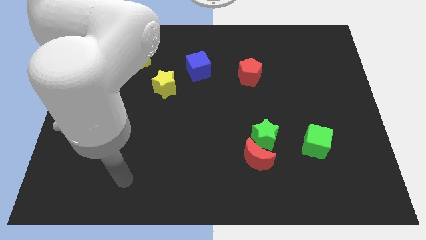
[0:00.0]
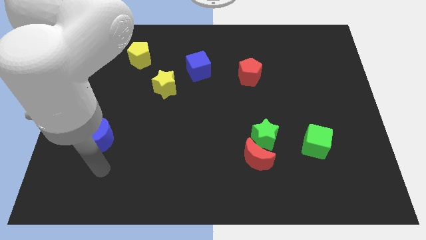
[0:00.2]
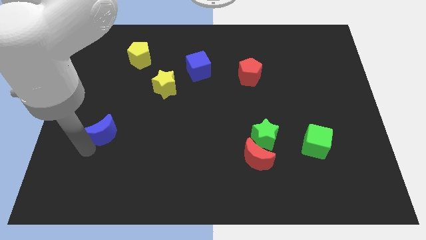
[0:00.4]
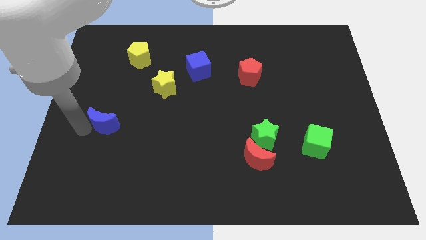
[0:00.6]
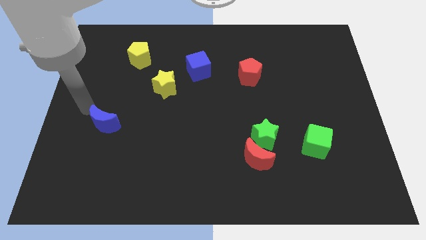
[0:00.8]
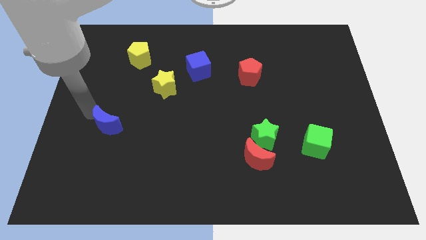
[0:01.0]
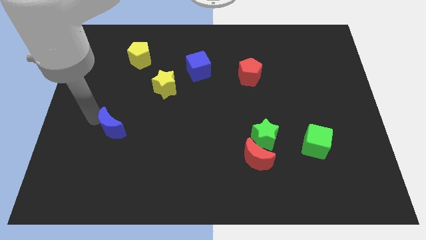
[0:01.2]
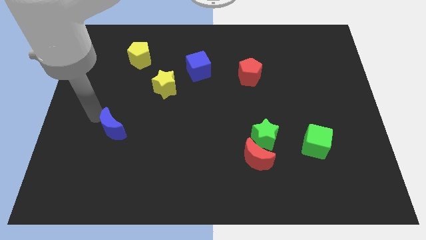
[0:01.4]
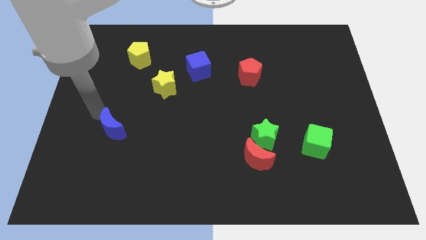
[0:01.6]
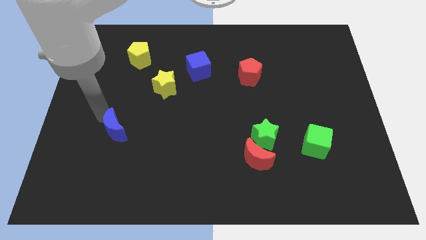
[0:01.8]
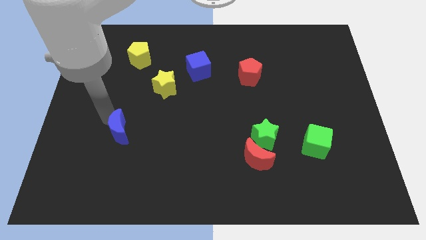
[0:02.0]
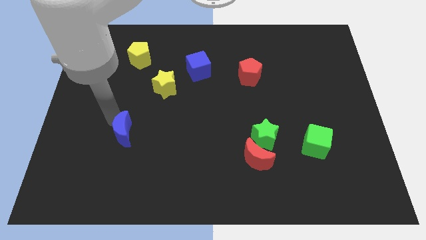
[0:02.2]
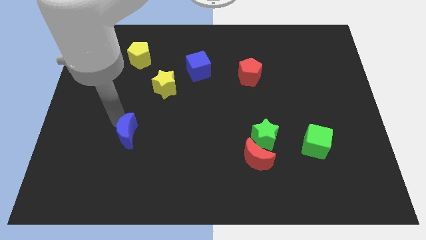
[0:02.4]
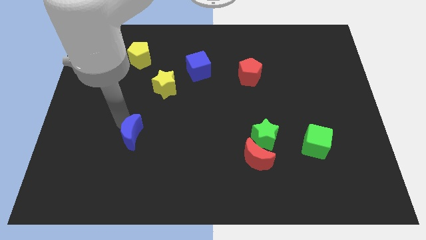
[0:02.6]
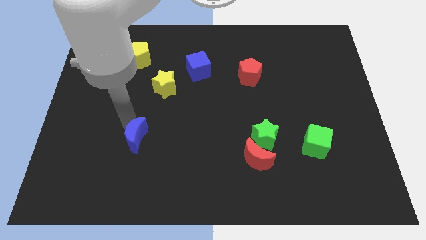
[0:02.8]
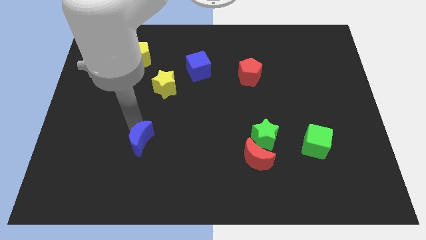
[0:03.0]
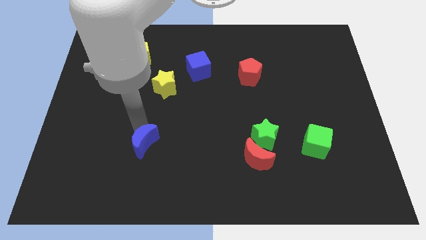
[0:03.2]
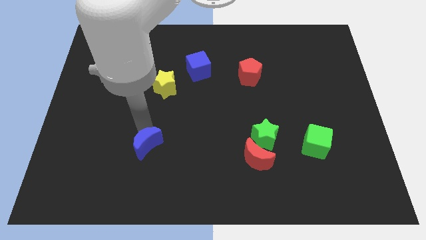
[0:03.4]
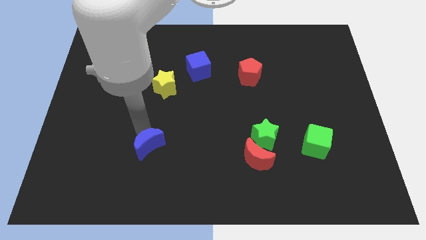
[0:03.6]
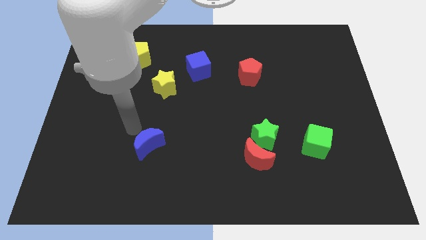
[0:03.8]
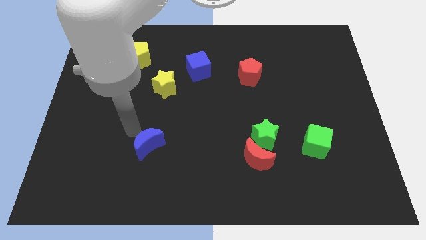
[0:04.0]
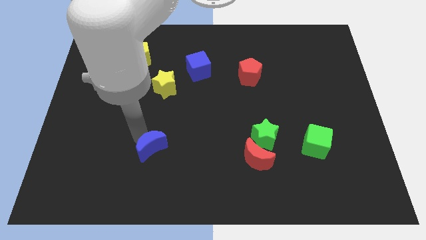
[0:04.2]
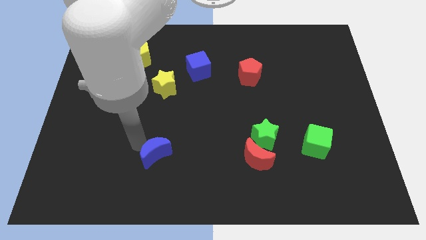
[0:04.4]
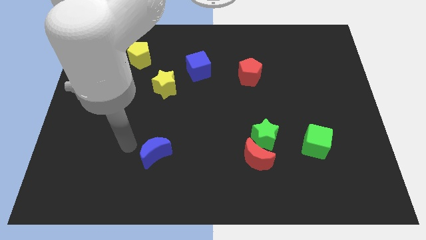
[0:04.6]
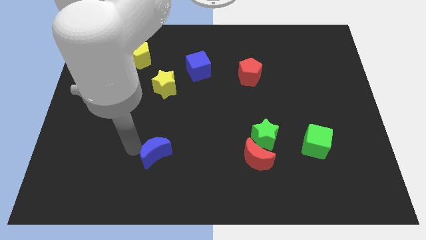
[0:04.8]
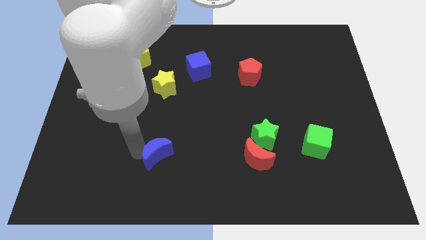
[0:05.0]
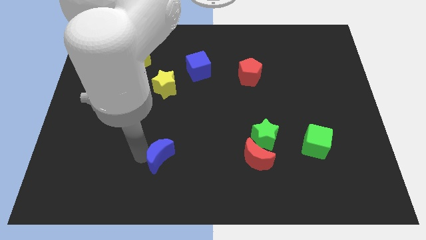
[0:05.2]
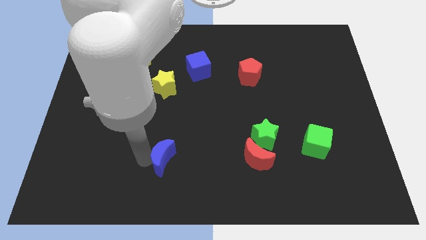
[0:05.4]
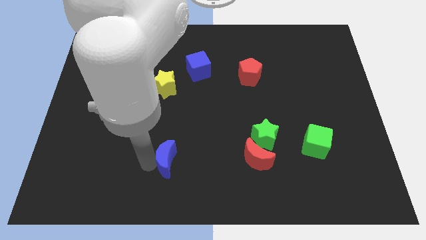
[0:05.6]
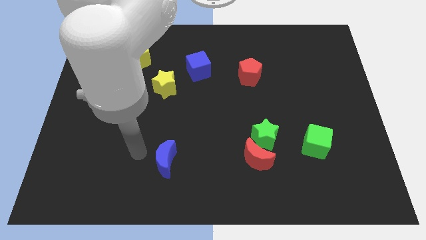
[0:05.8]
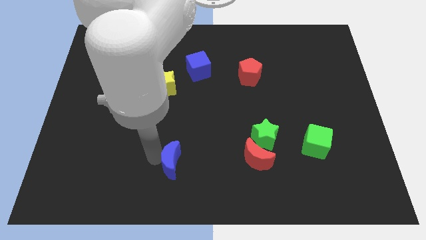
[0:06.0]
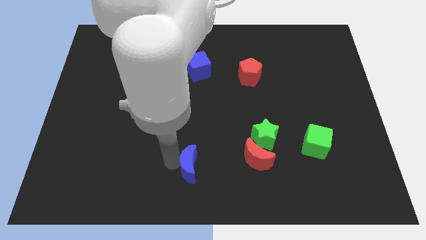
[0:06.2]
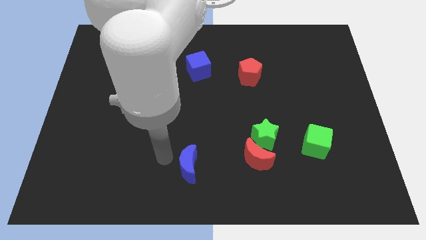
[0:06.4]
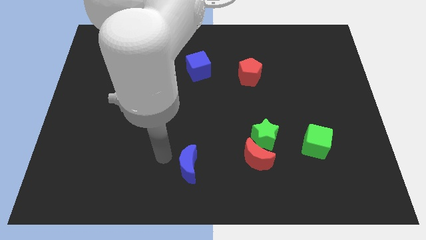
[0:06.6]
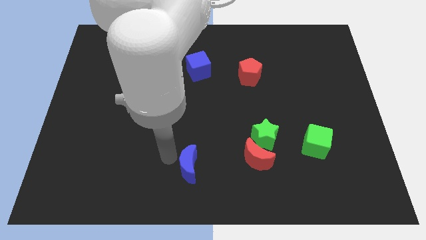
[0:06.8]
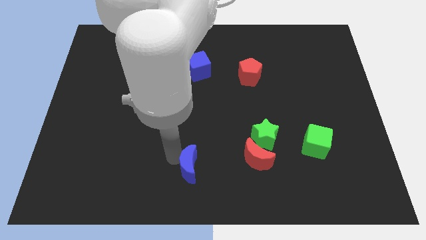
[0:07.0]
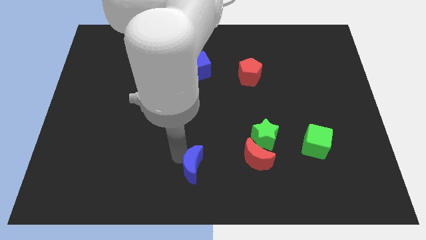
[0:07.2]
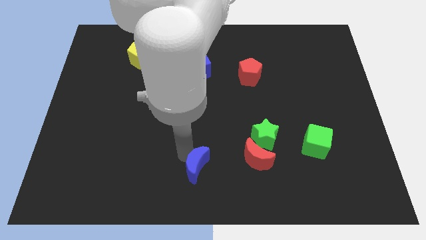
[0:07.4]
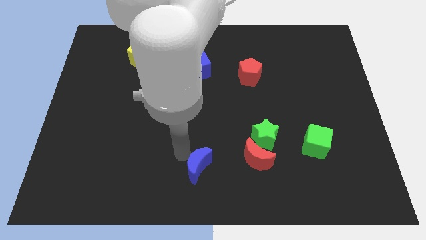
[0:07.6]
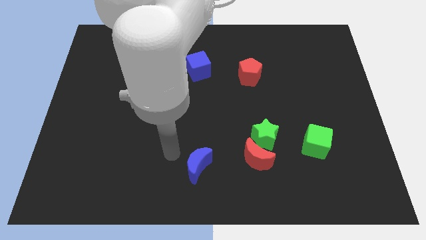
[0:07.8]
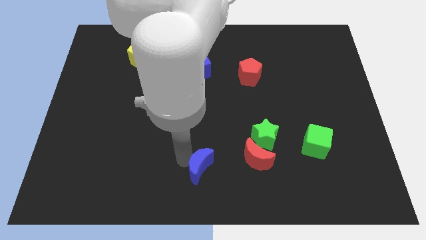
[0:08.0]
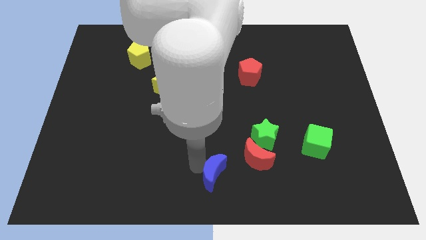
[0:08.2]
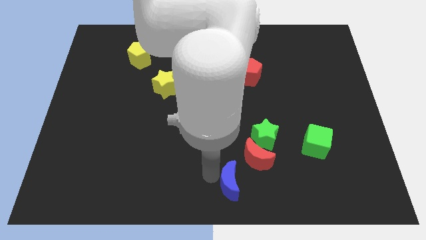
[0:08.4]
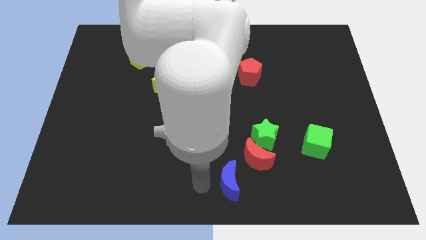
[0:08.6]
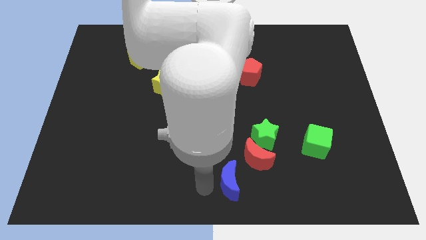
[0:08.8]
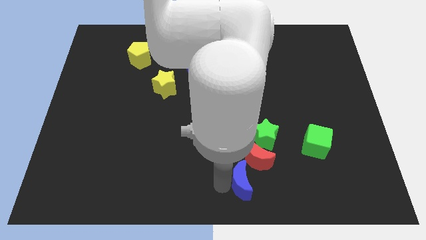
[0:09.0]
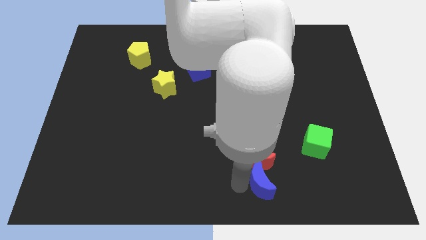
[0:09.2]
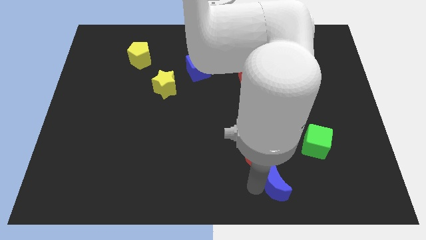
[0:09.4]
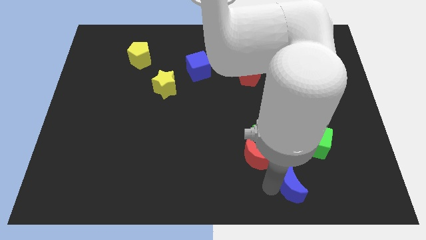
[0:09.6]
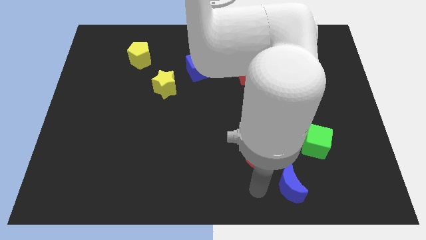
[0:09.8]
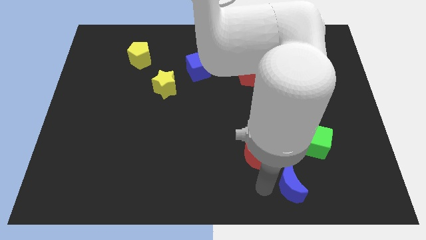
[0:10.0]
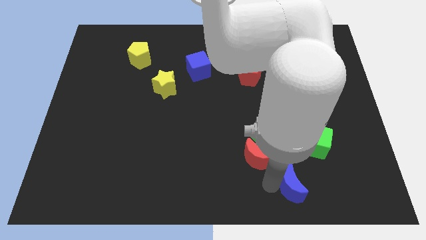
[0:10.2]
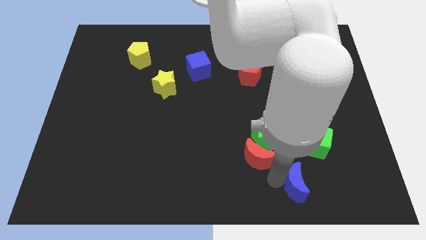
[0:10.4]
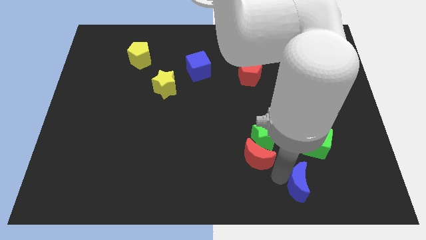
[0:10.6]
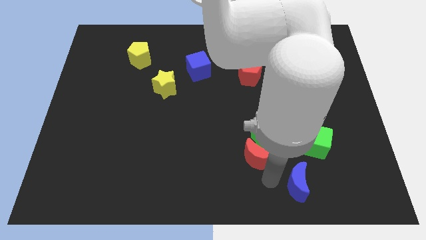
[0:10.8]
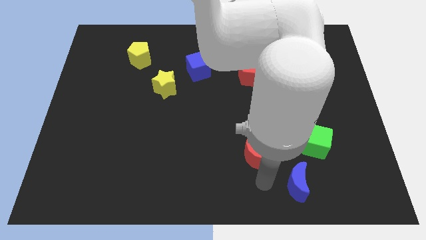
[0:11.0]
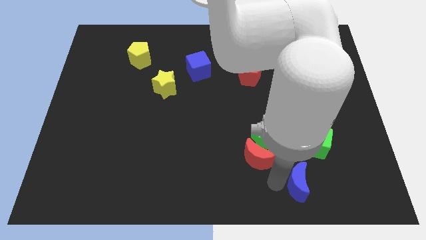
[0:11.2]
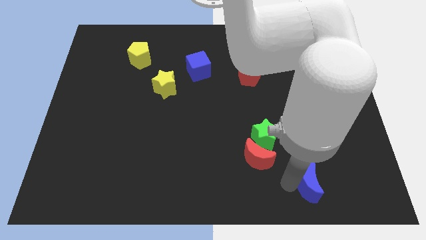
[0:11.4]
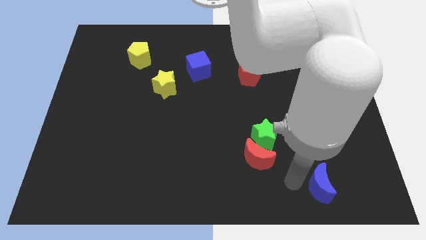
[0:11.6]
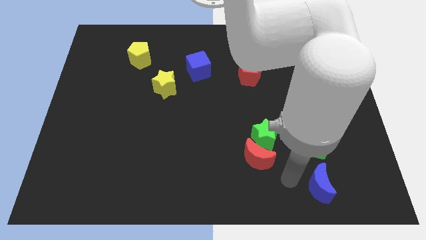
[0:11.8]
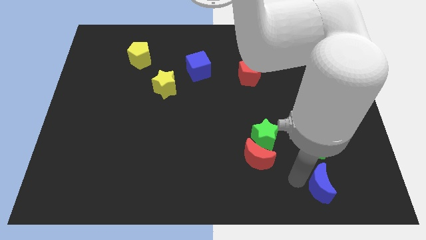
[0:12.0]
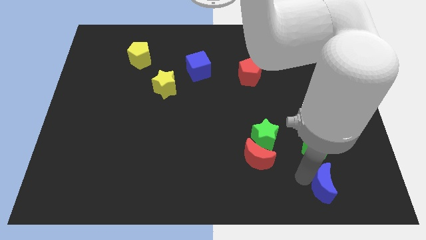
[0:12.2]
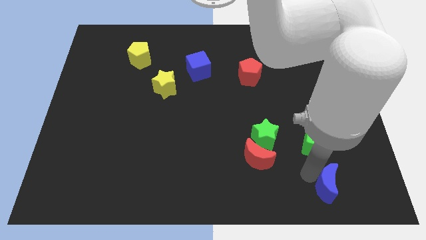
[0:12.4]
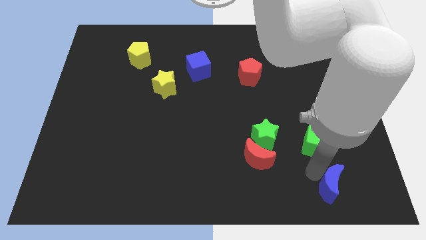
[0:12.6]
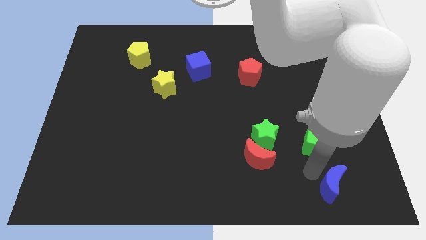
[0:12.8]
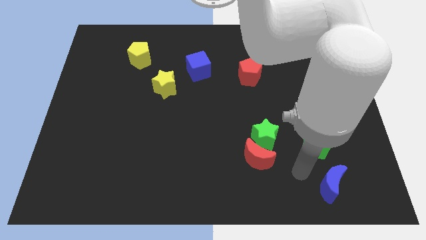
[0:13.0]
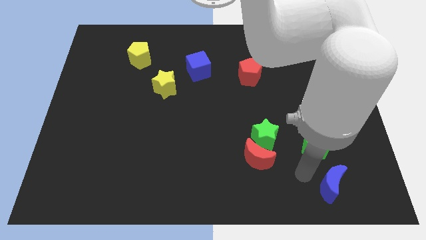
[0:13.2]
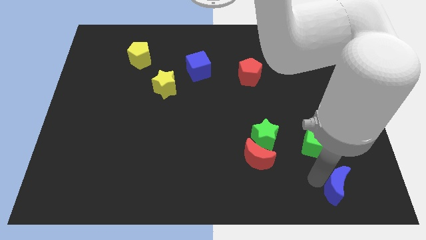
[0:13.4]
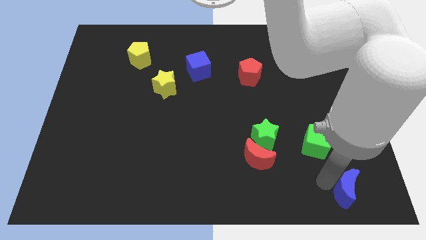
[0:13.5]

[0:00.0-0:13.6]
push the blue moon to the bottom right corner
